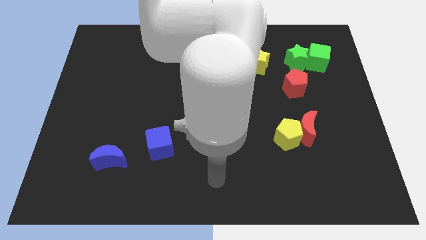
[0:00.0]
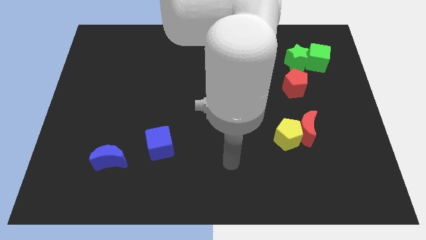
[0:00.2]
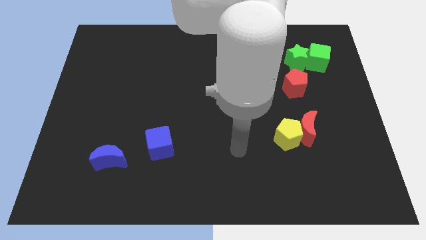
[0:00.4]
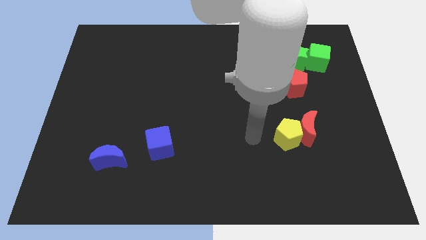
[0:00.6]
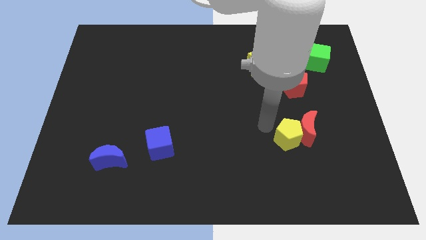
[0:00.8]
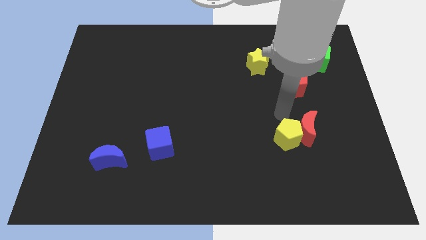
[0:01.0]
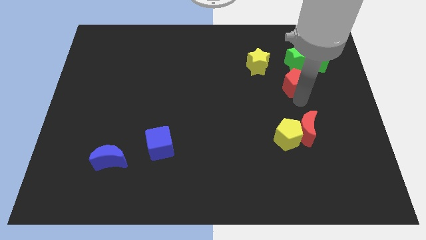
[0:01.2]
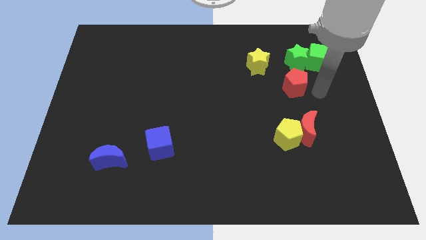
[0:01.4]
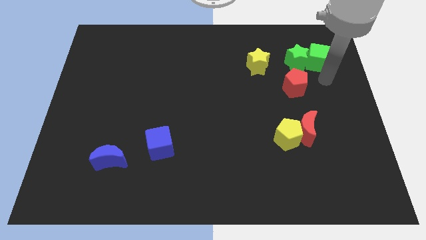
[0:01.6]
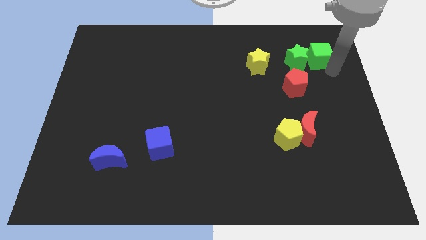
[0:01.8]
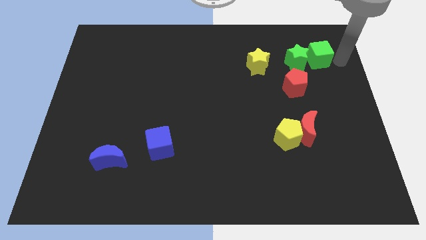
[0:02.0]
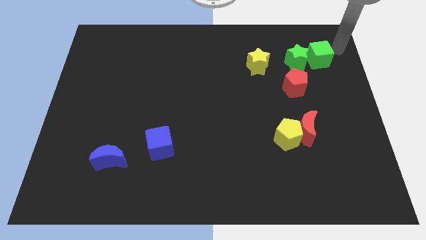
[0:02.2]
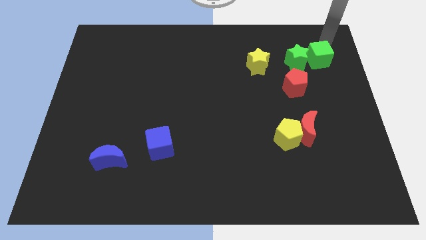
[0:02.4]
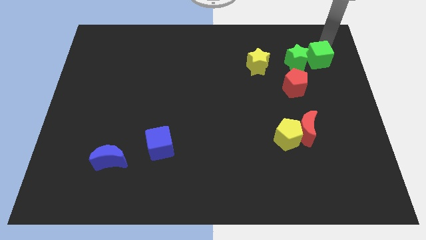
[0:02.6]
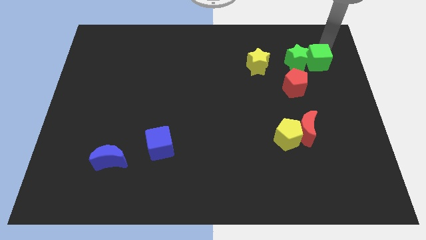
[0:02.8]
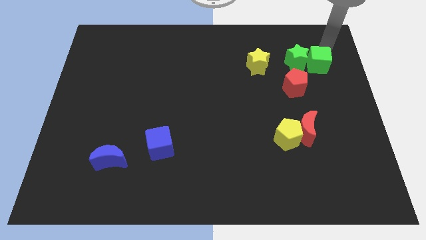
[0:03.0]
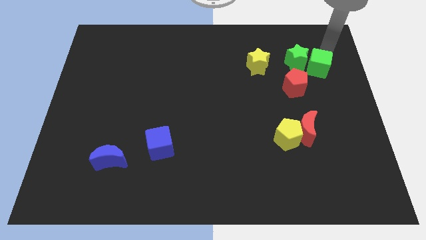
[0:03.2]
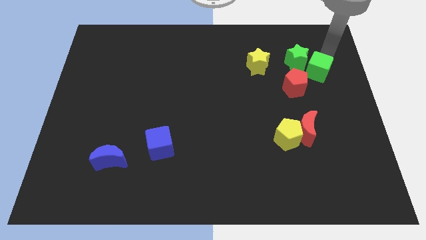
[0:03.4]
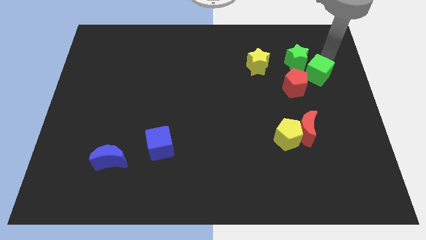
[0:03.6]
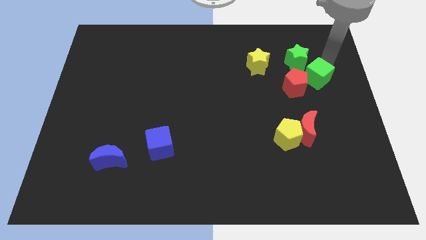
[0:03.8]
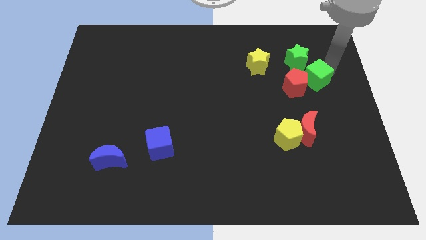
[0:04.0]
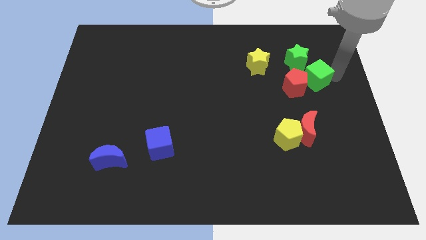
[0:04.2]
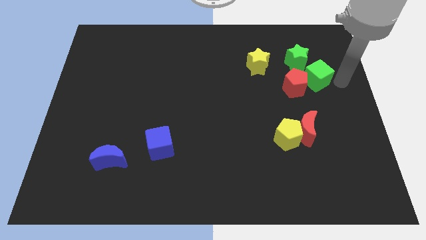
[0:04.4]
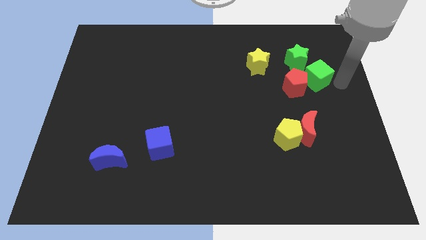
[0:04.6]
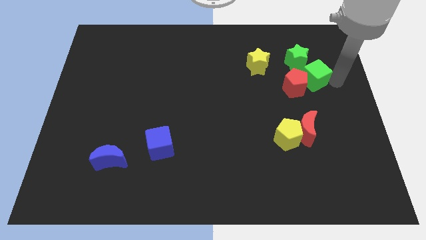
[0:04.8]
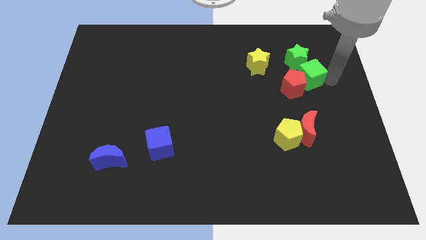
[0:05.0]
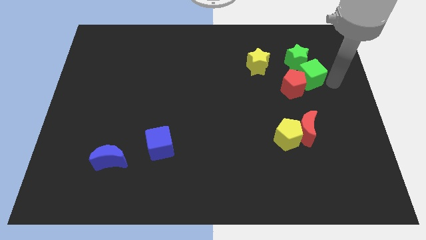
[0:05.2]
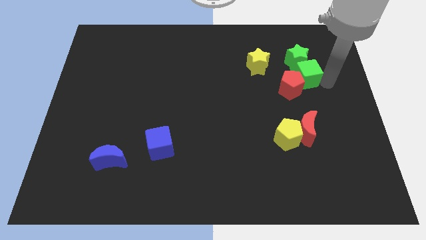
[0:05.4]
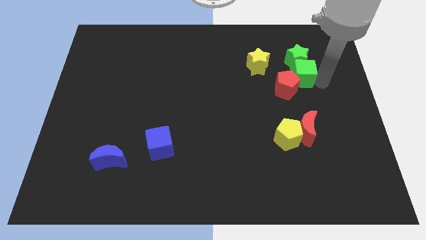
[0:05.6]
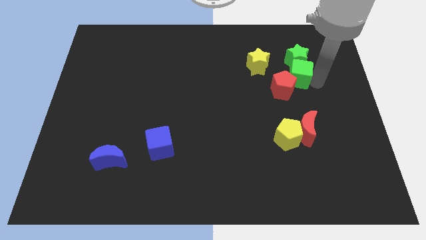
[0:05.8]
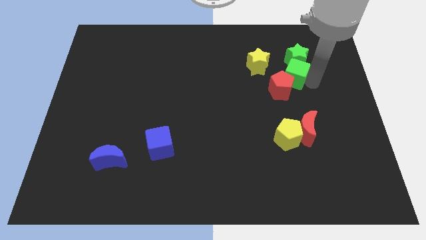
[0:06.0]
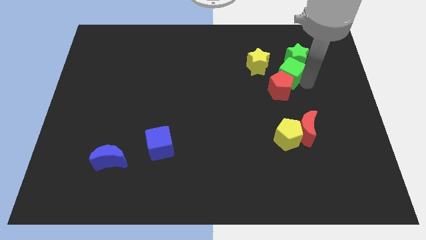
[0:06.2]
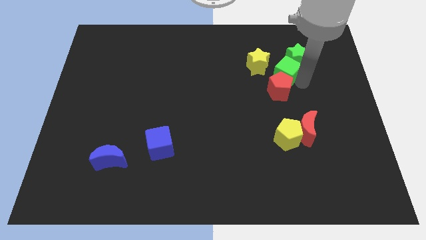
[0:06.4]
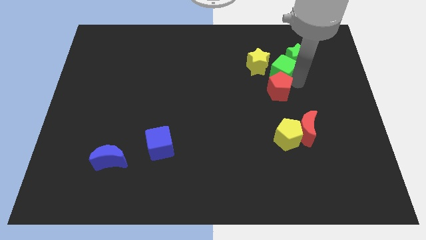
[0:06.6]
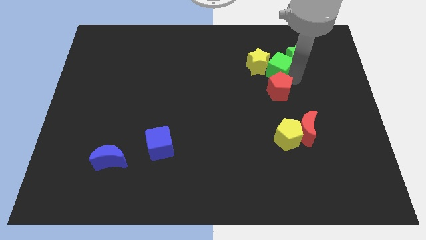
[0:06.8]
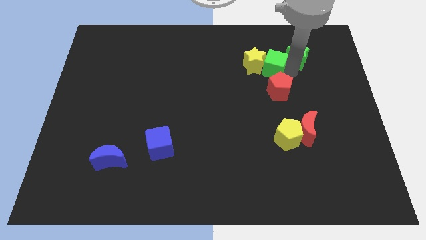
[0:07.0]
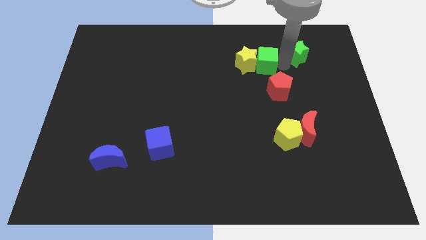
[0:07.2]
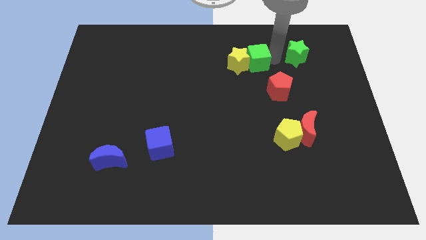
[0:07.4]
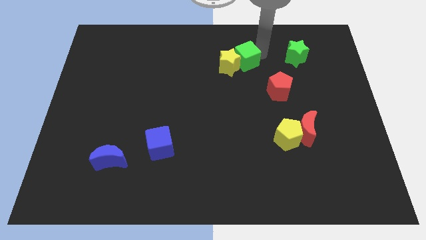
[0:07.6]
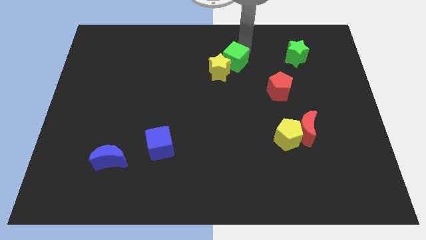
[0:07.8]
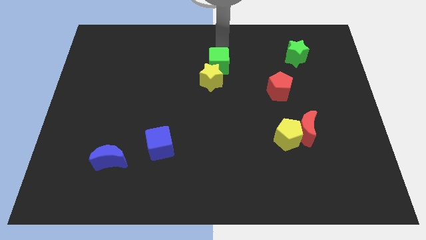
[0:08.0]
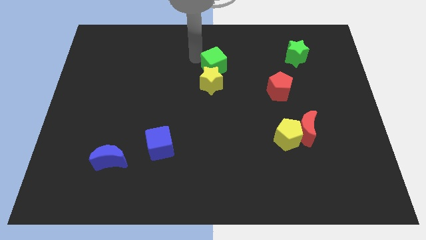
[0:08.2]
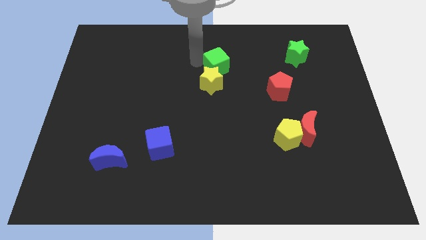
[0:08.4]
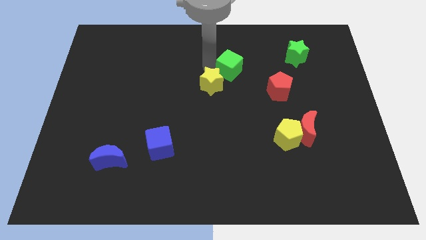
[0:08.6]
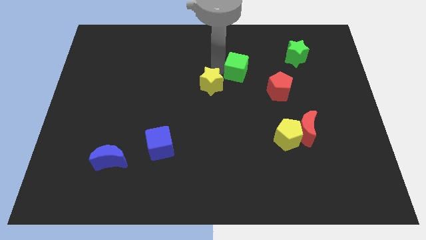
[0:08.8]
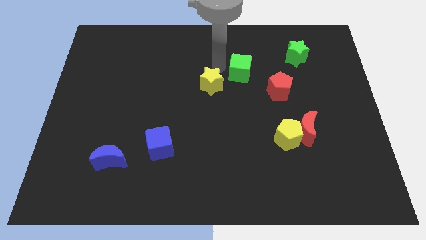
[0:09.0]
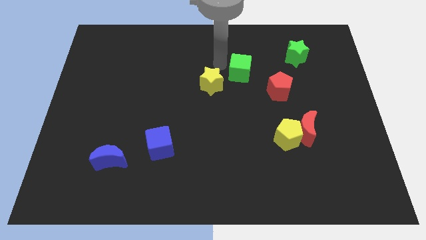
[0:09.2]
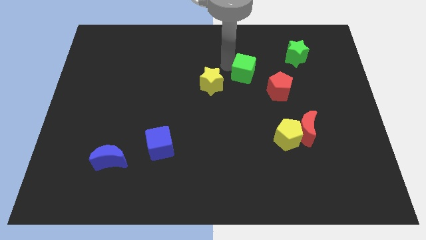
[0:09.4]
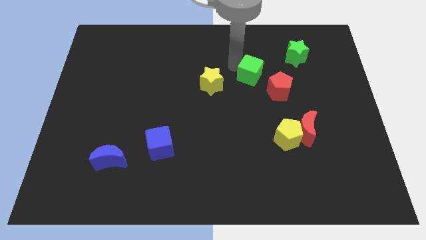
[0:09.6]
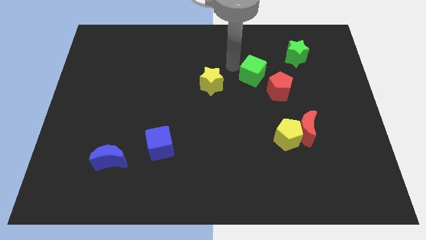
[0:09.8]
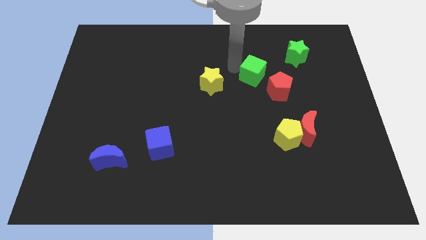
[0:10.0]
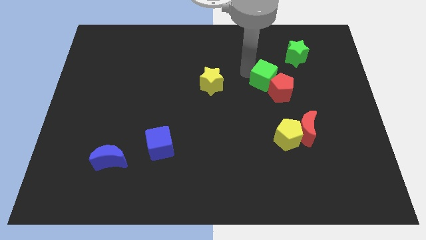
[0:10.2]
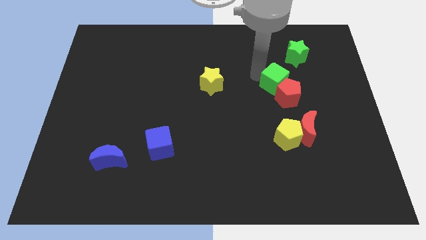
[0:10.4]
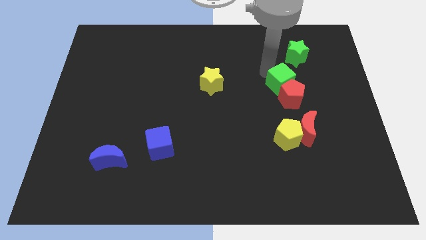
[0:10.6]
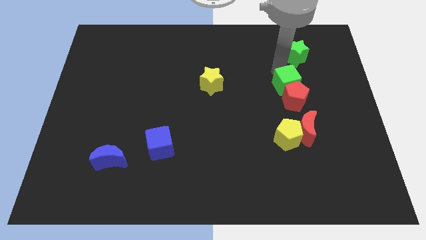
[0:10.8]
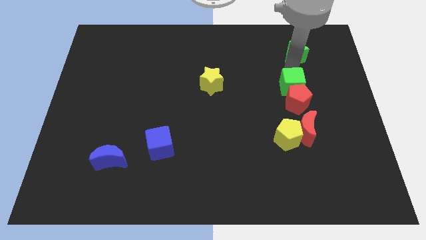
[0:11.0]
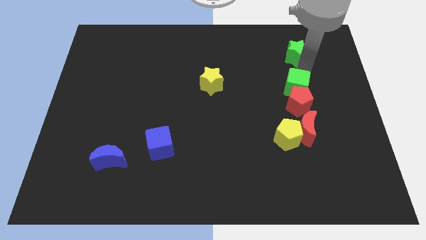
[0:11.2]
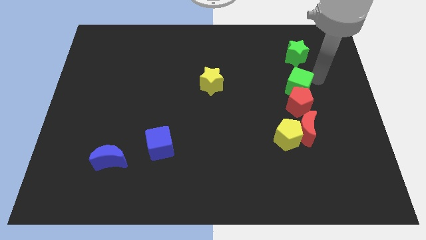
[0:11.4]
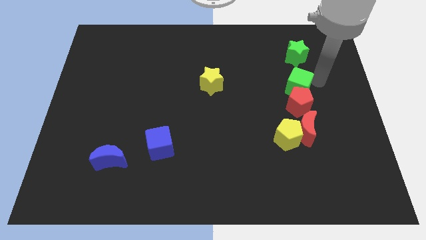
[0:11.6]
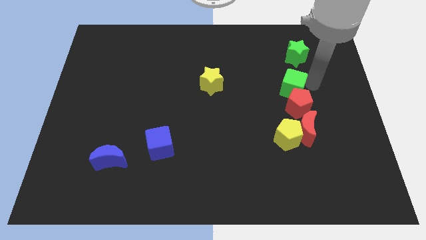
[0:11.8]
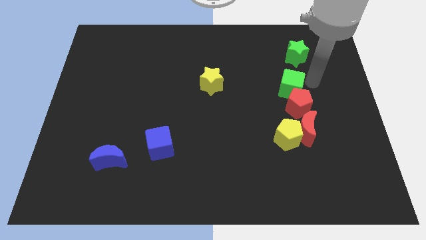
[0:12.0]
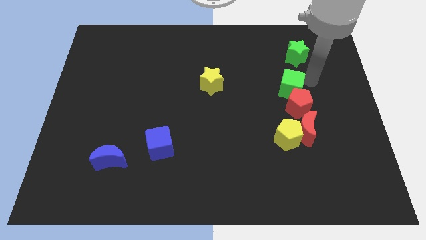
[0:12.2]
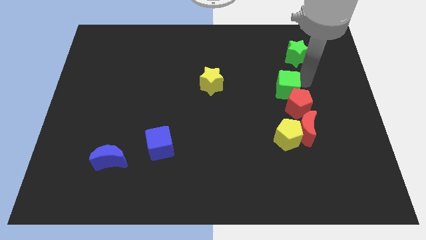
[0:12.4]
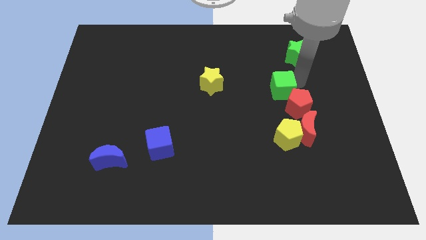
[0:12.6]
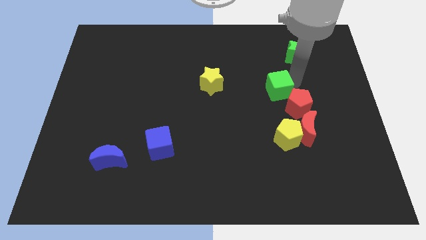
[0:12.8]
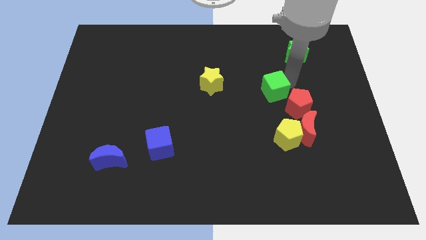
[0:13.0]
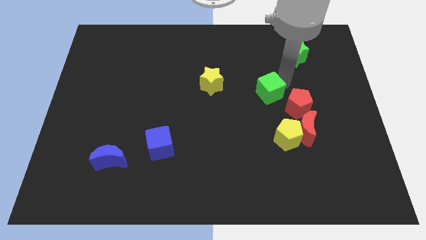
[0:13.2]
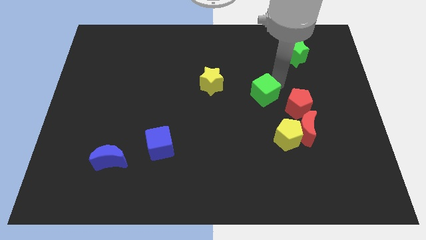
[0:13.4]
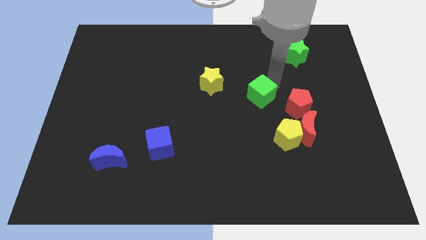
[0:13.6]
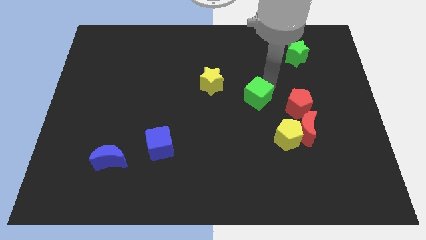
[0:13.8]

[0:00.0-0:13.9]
push the green cube diagonally downwards and left

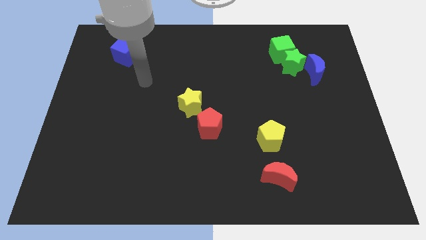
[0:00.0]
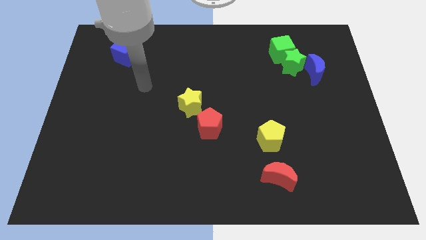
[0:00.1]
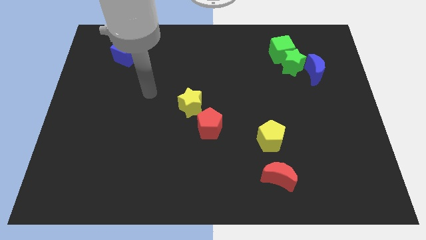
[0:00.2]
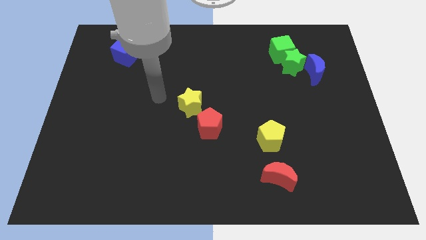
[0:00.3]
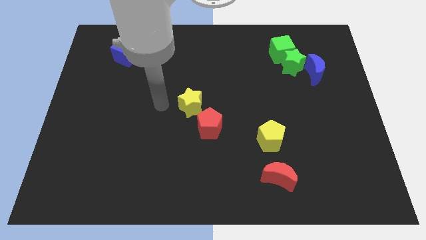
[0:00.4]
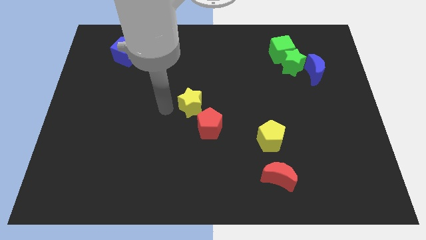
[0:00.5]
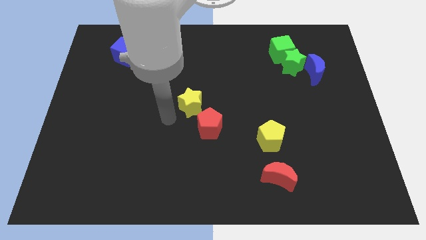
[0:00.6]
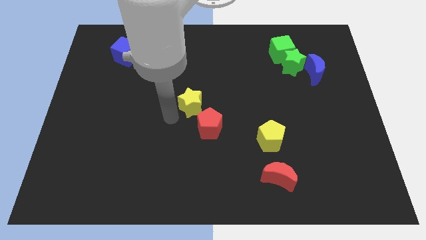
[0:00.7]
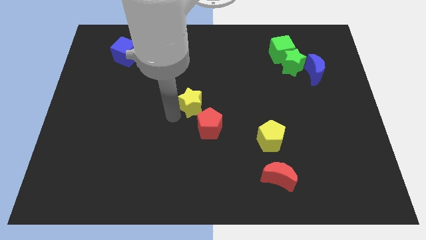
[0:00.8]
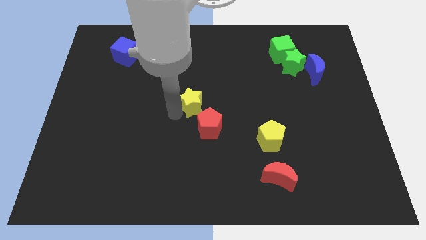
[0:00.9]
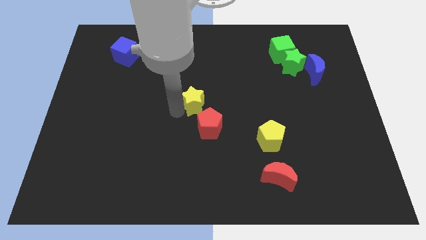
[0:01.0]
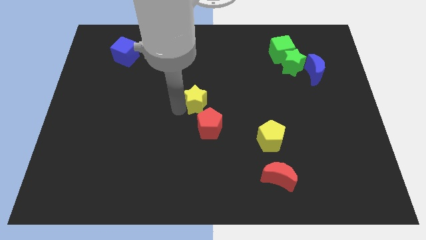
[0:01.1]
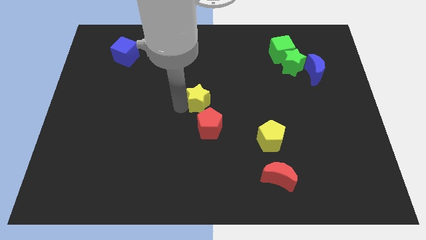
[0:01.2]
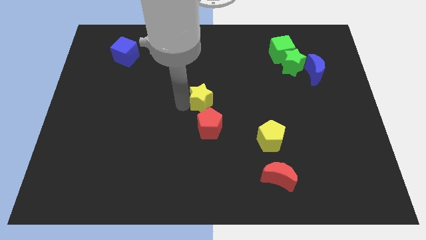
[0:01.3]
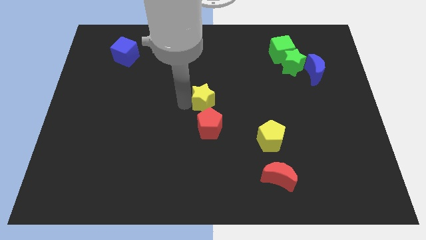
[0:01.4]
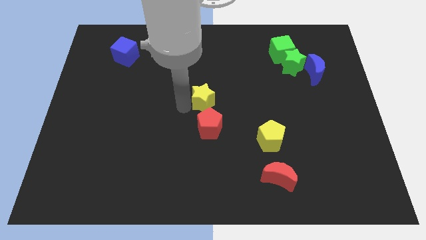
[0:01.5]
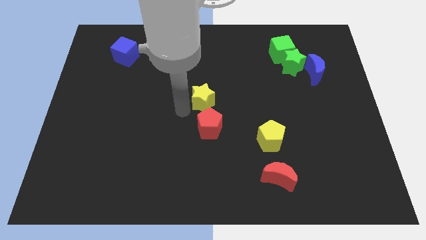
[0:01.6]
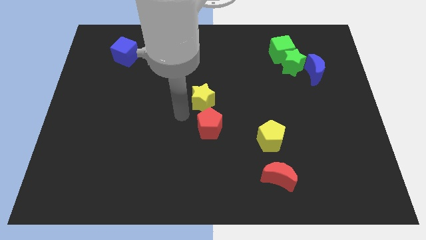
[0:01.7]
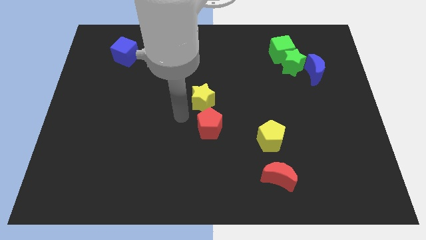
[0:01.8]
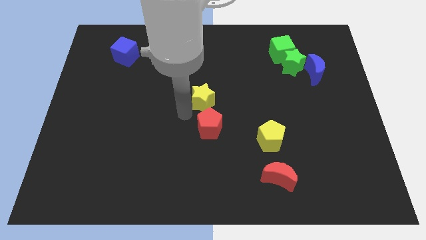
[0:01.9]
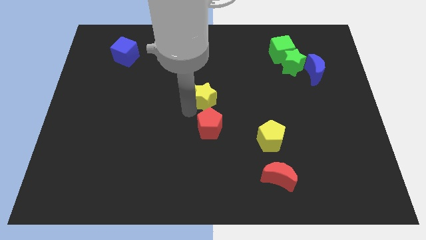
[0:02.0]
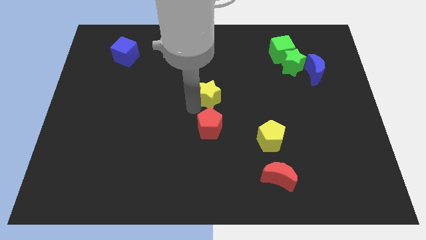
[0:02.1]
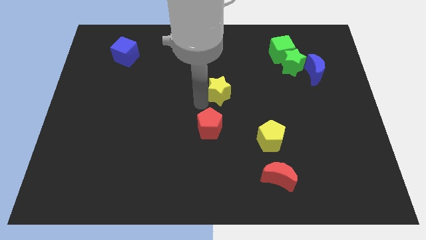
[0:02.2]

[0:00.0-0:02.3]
move the yellow star somewhat diagonally upwards and to the right
